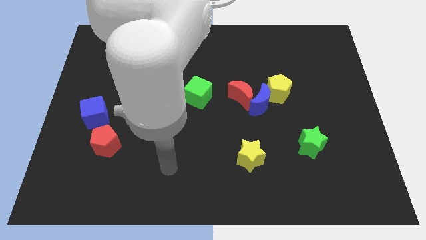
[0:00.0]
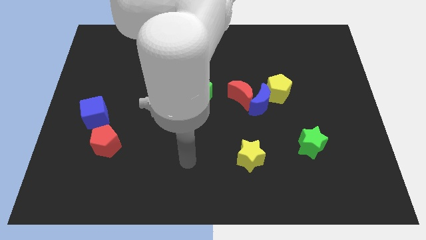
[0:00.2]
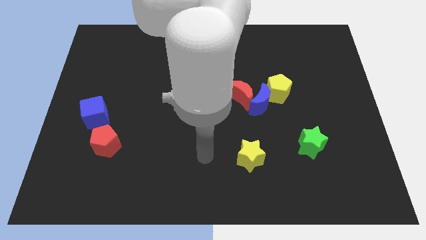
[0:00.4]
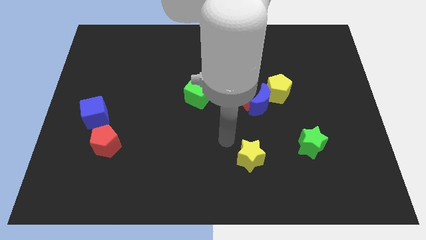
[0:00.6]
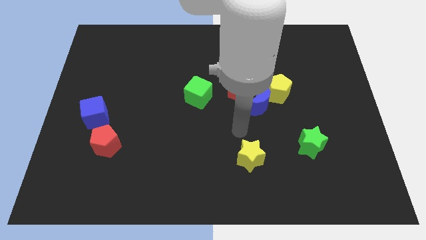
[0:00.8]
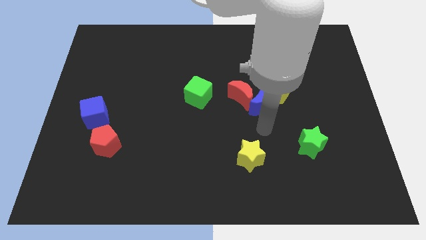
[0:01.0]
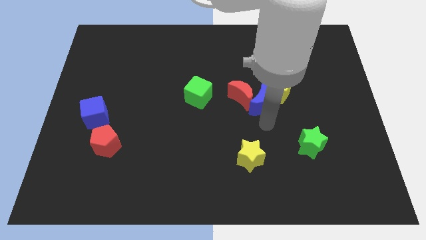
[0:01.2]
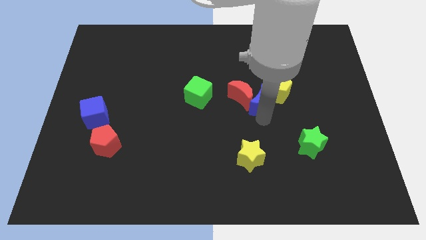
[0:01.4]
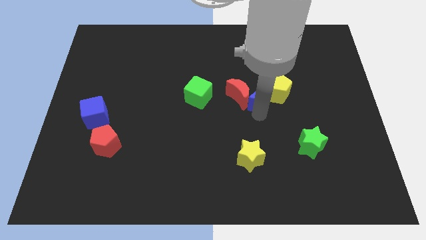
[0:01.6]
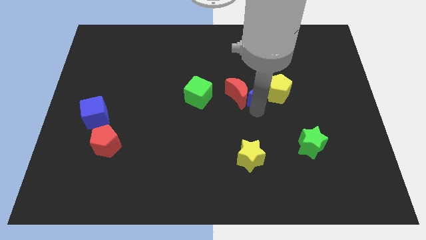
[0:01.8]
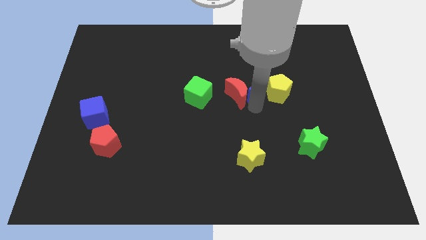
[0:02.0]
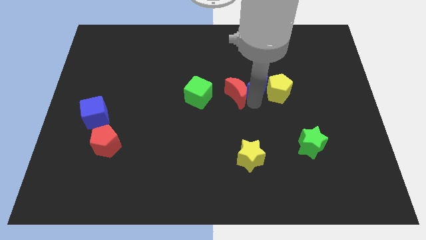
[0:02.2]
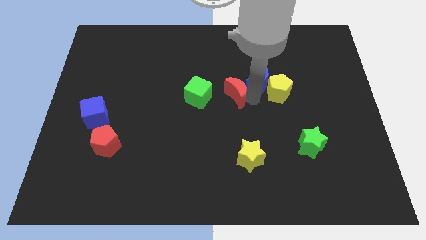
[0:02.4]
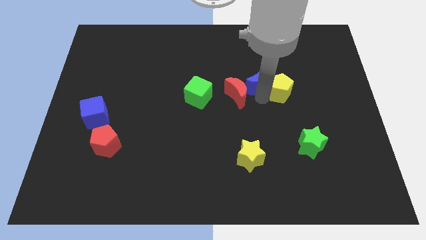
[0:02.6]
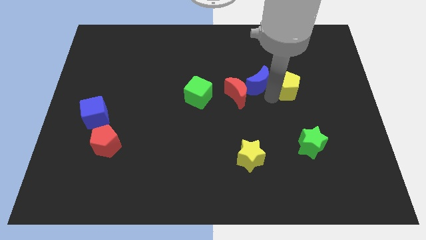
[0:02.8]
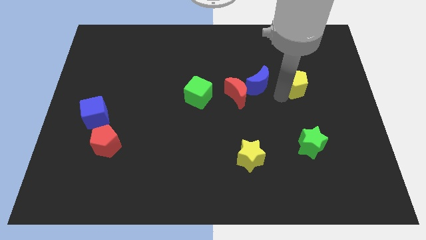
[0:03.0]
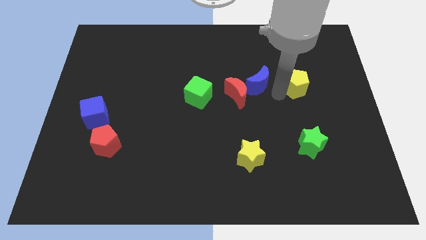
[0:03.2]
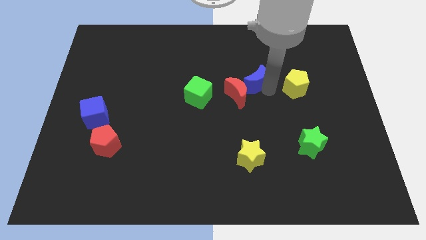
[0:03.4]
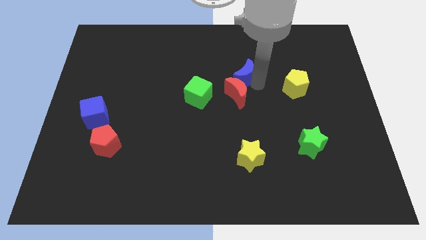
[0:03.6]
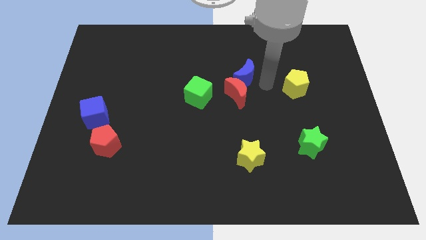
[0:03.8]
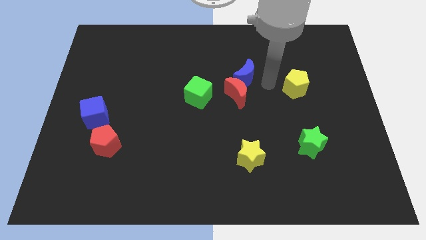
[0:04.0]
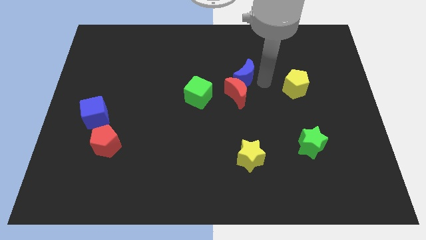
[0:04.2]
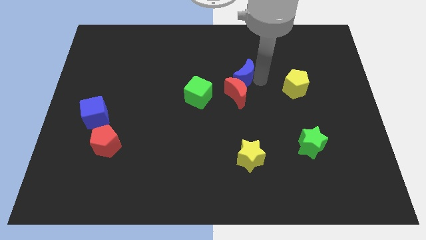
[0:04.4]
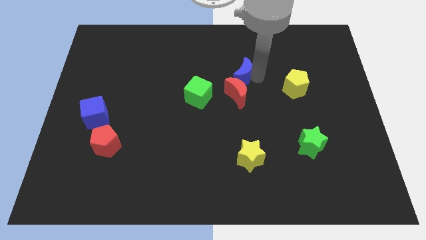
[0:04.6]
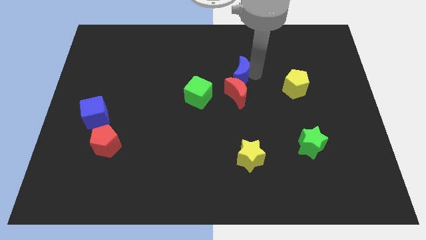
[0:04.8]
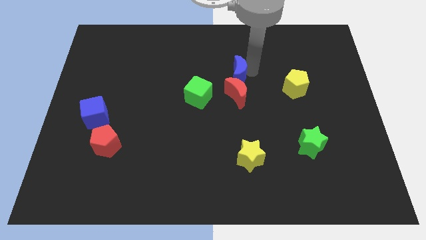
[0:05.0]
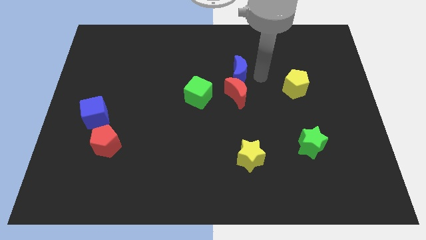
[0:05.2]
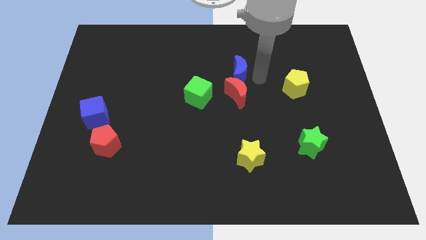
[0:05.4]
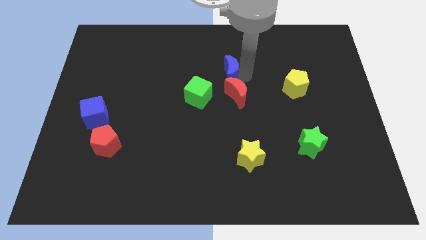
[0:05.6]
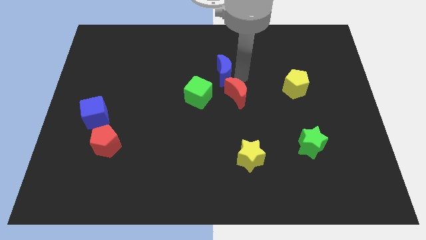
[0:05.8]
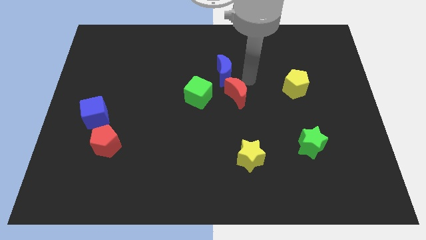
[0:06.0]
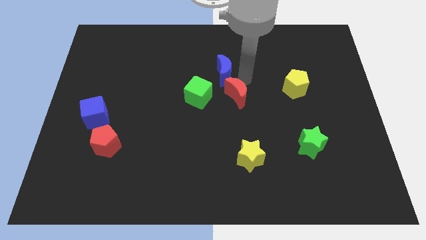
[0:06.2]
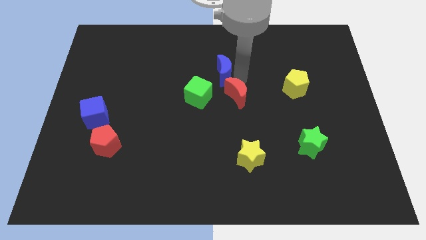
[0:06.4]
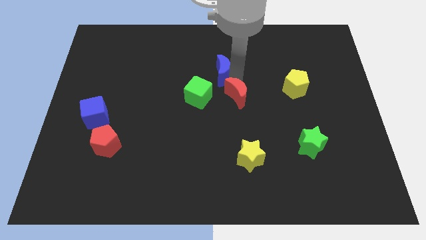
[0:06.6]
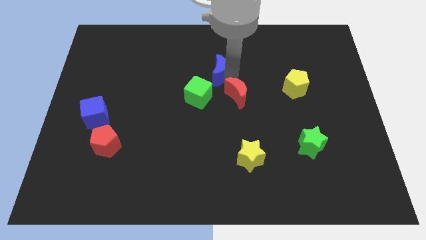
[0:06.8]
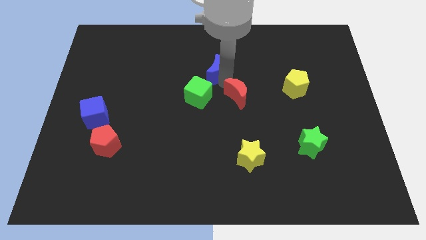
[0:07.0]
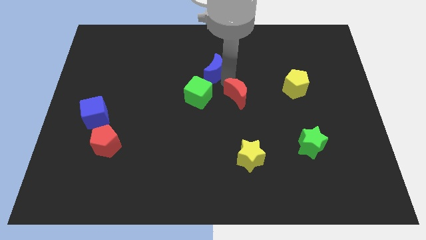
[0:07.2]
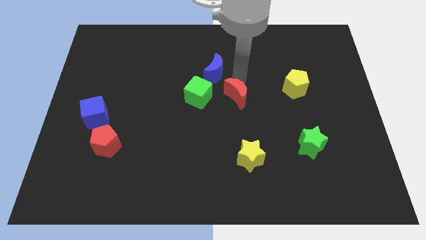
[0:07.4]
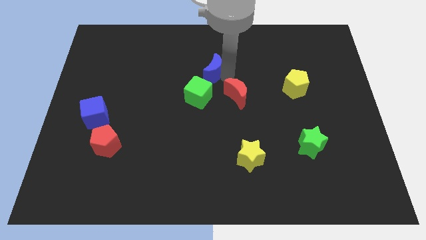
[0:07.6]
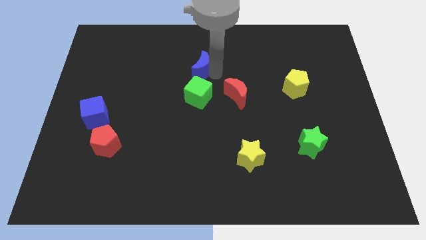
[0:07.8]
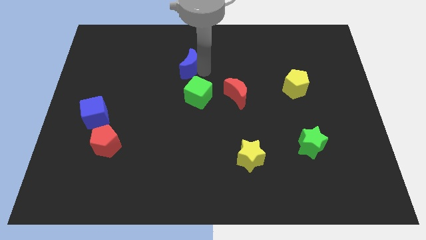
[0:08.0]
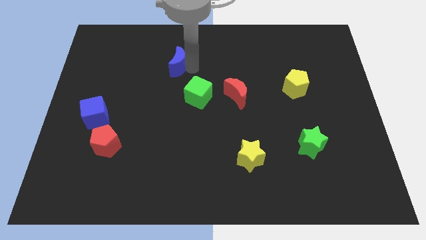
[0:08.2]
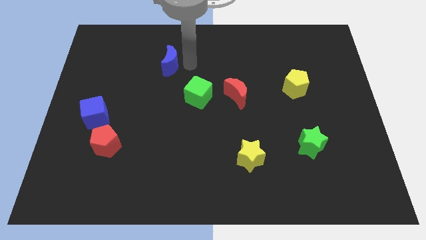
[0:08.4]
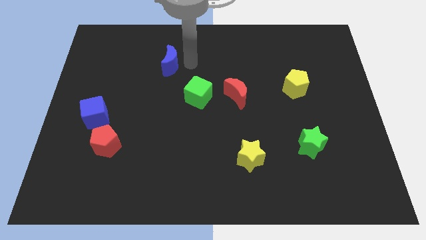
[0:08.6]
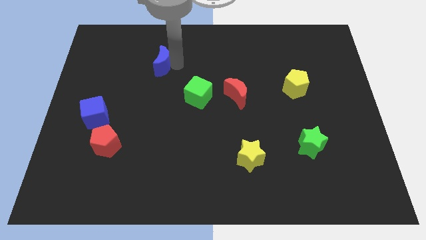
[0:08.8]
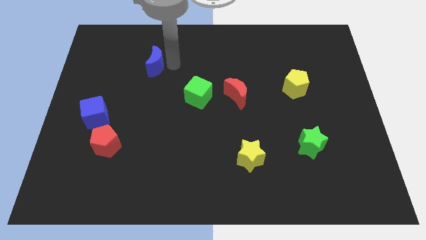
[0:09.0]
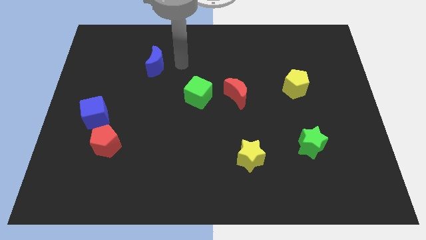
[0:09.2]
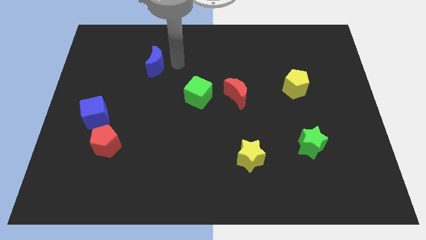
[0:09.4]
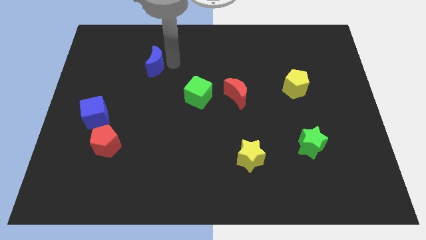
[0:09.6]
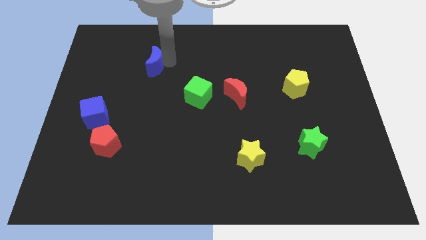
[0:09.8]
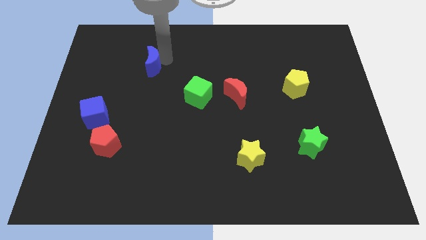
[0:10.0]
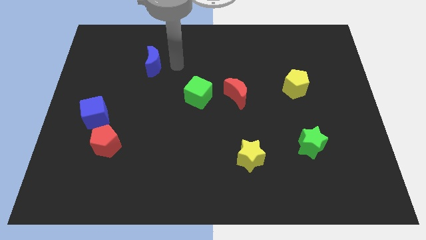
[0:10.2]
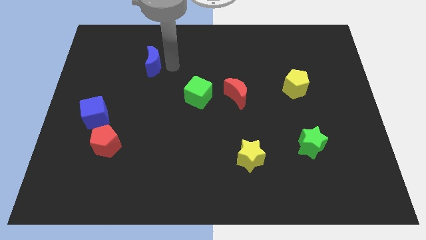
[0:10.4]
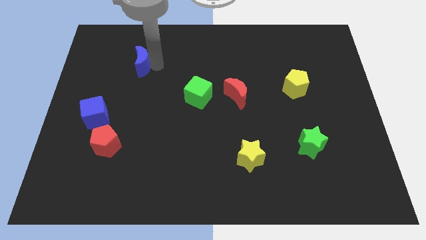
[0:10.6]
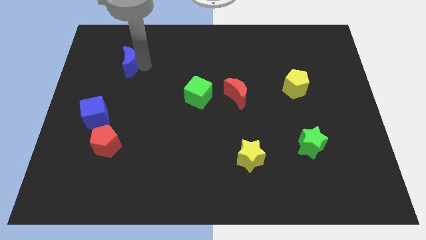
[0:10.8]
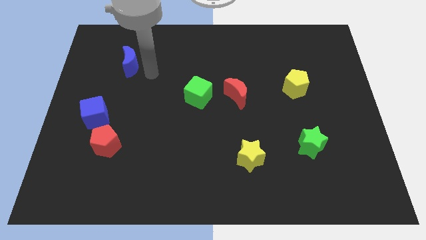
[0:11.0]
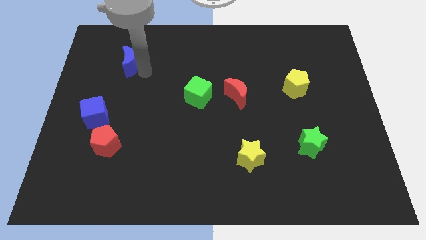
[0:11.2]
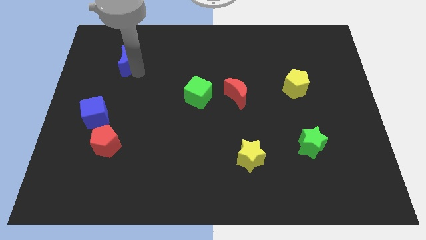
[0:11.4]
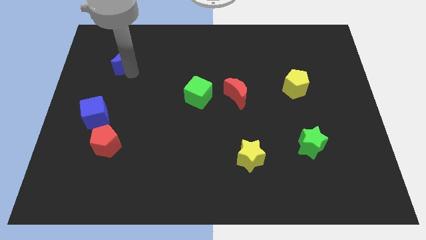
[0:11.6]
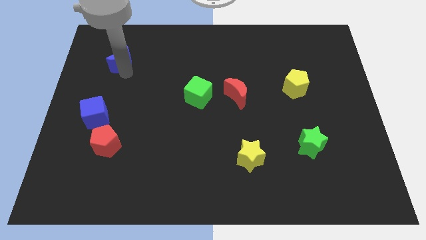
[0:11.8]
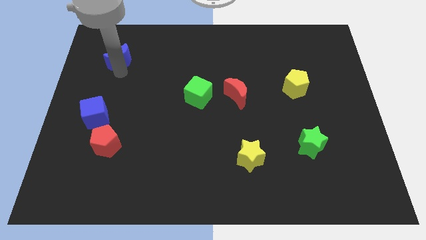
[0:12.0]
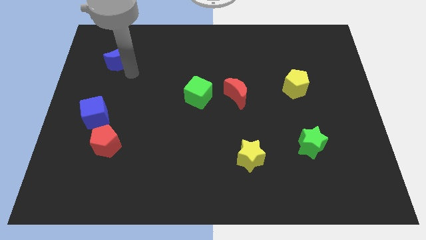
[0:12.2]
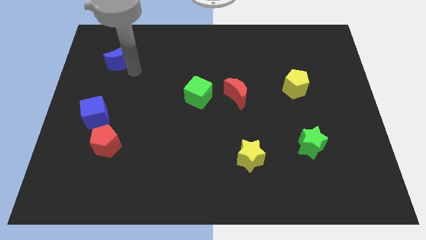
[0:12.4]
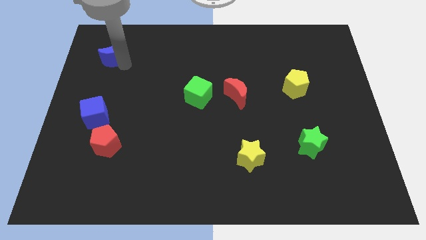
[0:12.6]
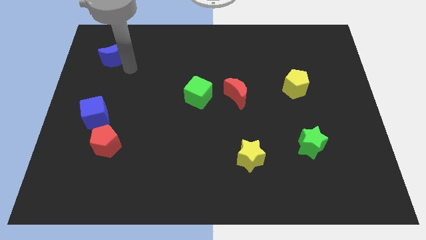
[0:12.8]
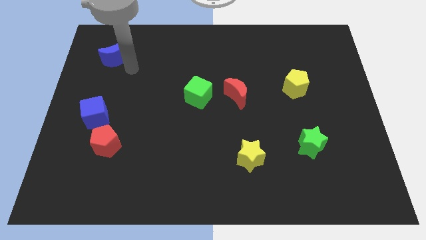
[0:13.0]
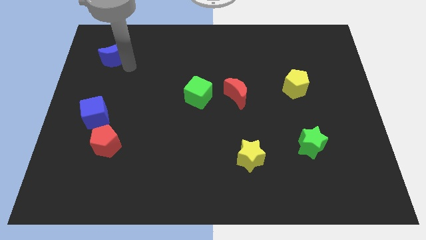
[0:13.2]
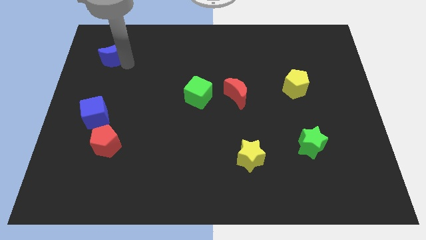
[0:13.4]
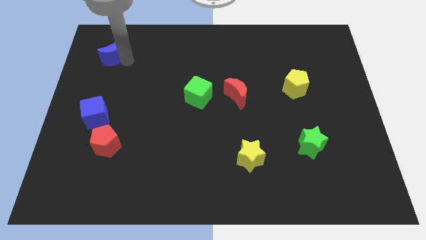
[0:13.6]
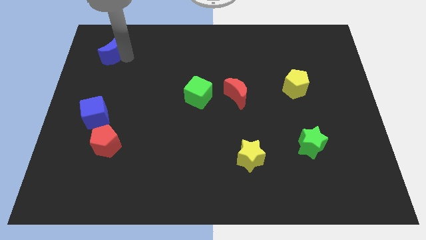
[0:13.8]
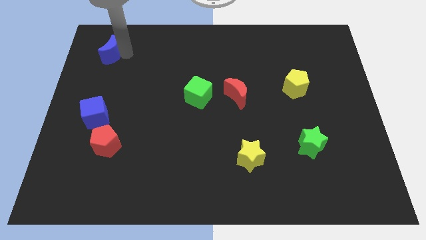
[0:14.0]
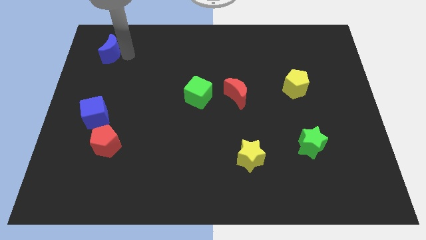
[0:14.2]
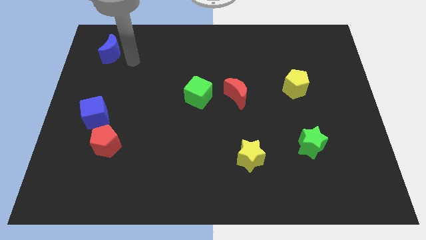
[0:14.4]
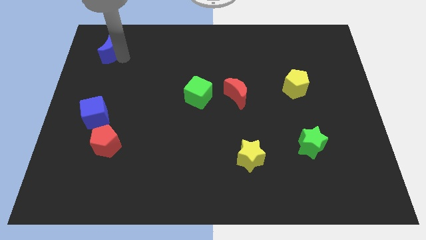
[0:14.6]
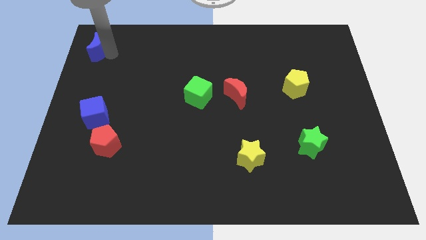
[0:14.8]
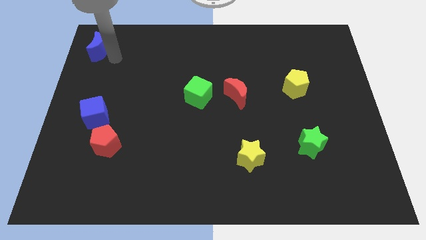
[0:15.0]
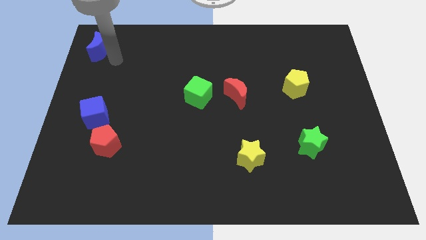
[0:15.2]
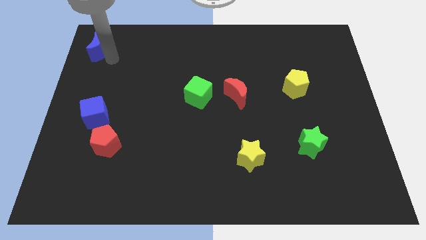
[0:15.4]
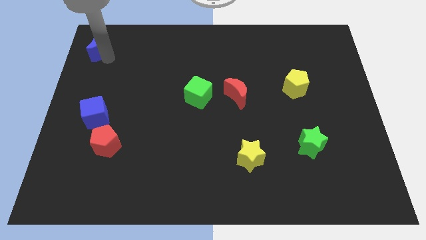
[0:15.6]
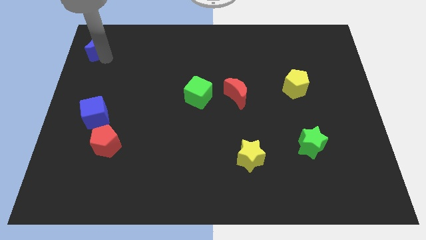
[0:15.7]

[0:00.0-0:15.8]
push the blue moon to the top left corner
